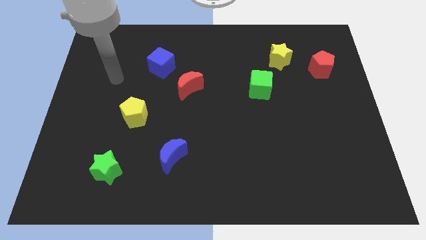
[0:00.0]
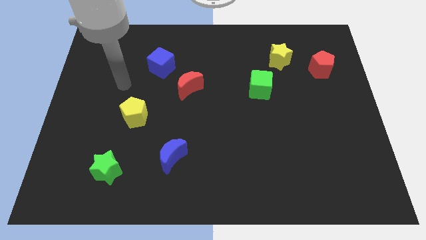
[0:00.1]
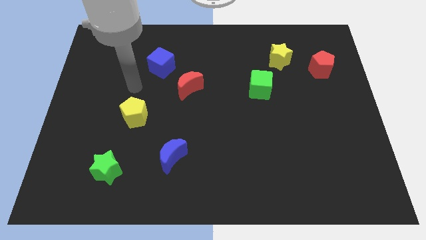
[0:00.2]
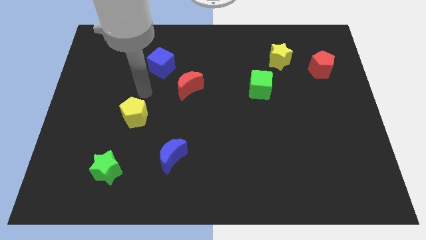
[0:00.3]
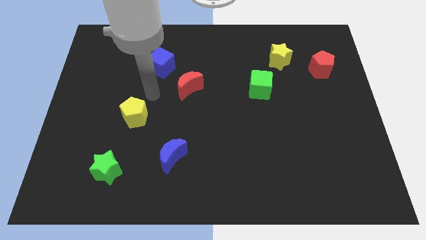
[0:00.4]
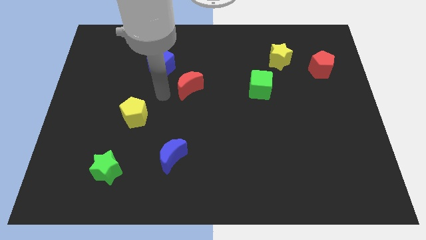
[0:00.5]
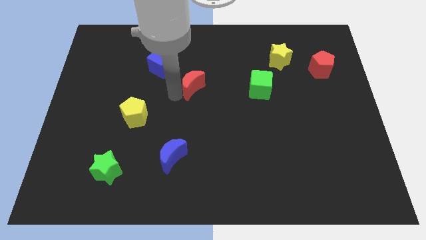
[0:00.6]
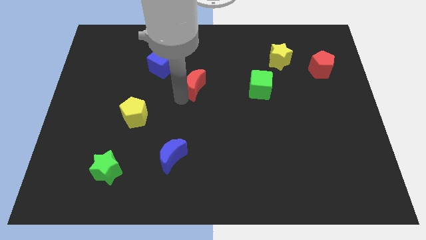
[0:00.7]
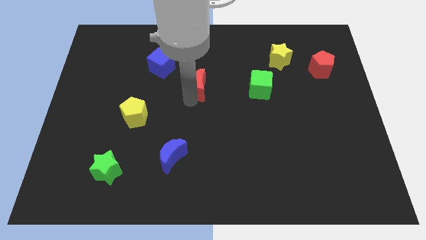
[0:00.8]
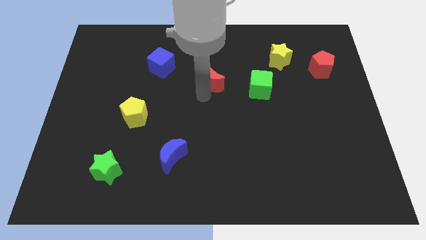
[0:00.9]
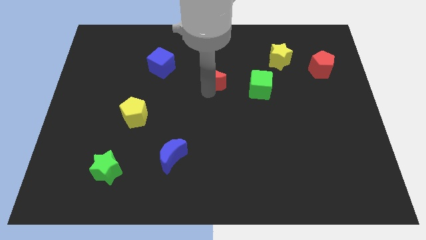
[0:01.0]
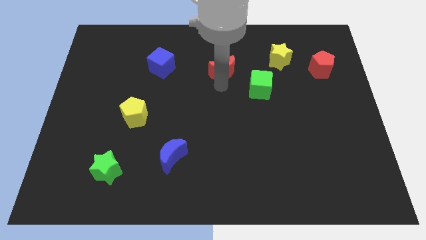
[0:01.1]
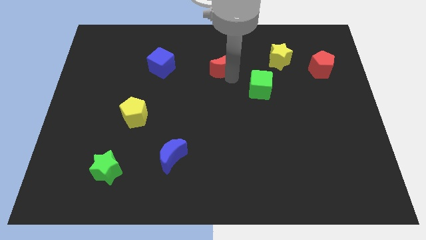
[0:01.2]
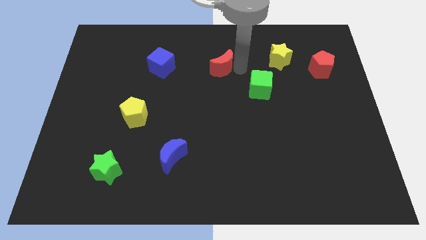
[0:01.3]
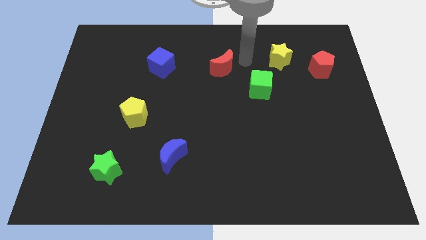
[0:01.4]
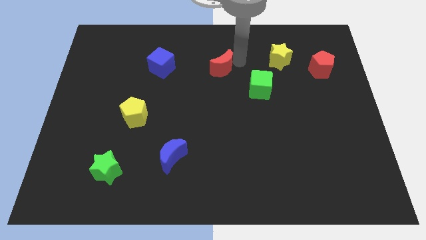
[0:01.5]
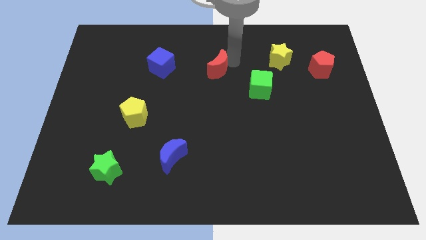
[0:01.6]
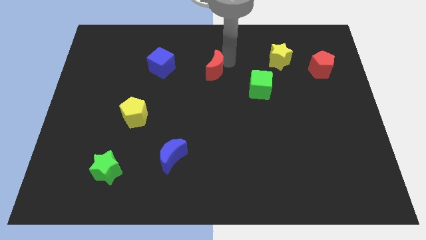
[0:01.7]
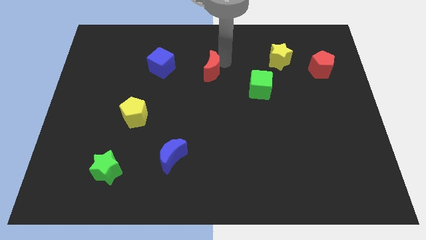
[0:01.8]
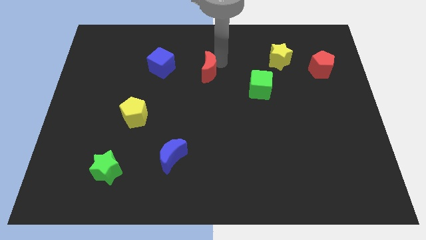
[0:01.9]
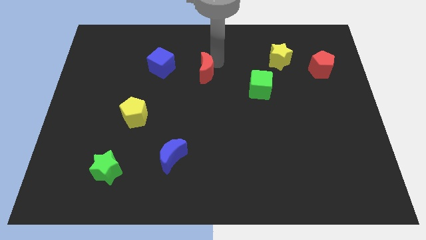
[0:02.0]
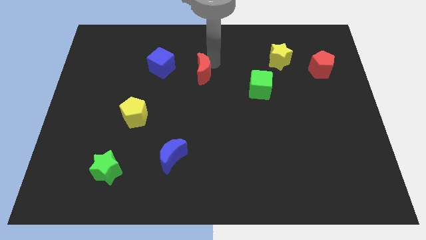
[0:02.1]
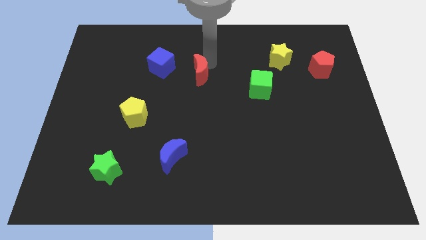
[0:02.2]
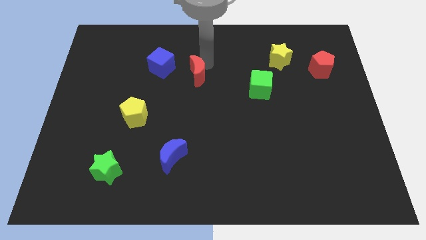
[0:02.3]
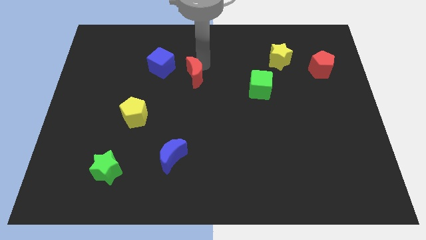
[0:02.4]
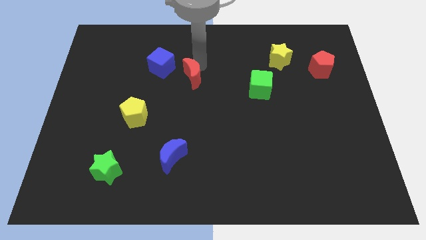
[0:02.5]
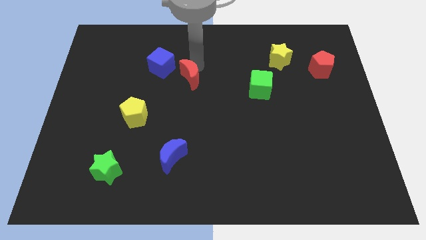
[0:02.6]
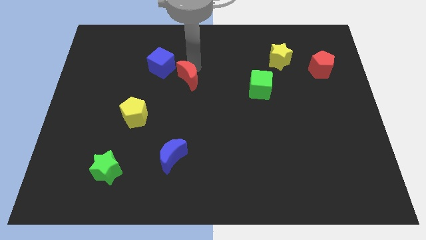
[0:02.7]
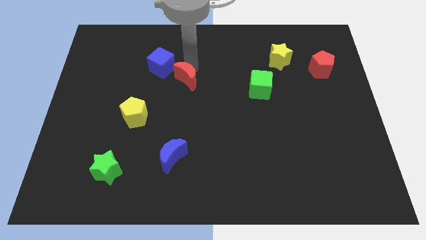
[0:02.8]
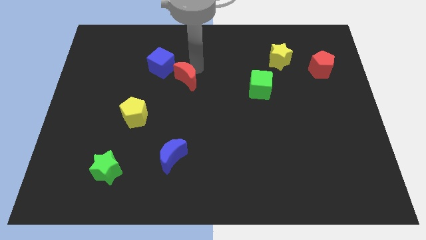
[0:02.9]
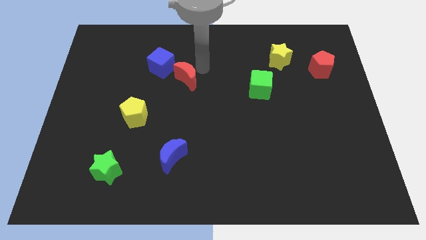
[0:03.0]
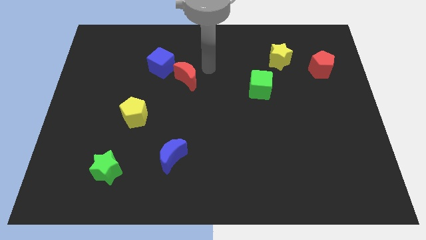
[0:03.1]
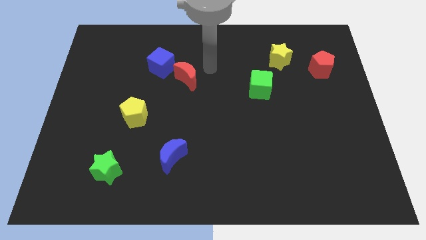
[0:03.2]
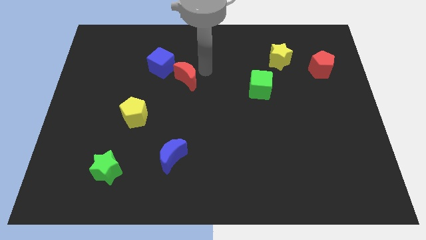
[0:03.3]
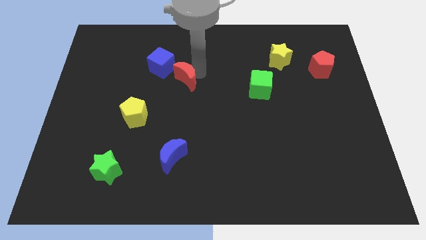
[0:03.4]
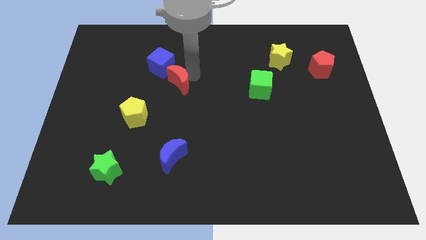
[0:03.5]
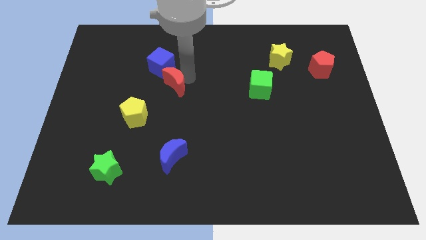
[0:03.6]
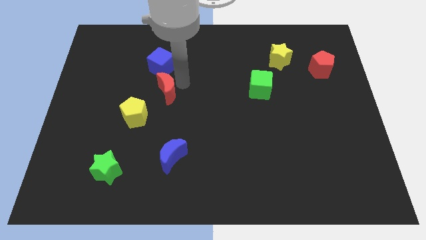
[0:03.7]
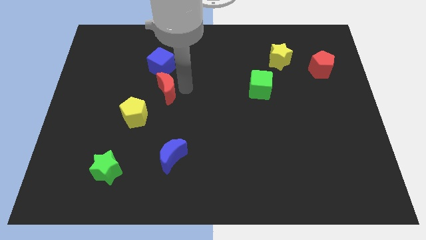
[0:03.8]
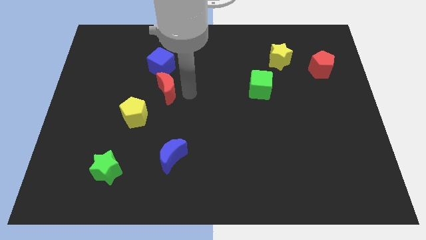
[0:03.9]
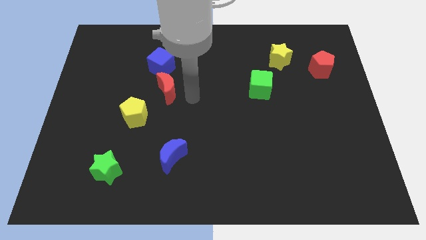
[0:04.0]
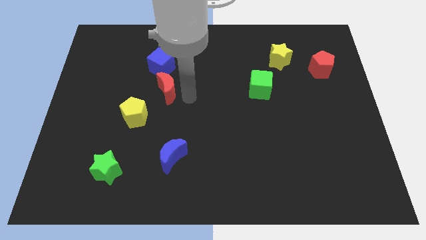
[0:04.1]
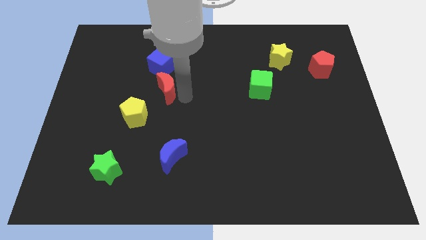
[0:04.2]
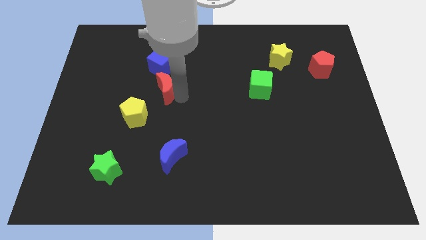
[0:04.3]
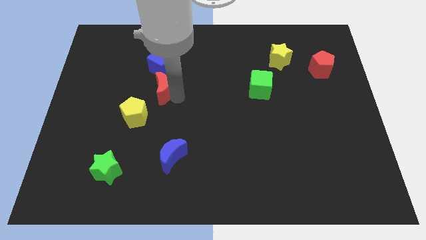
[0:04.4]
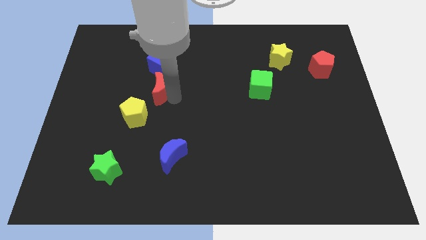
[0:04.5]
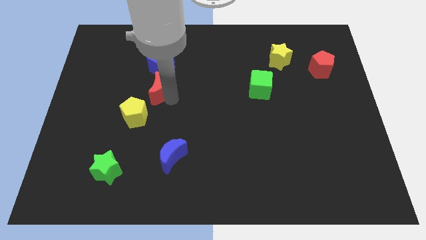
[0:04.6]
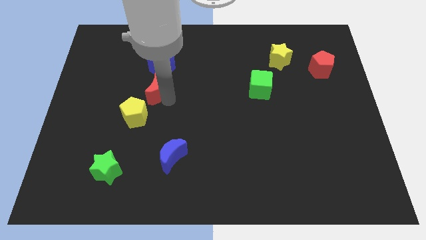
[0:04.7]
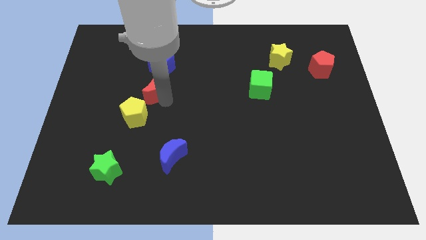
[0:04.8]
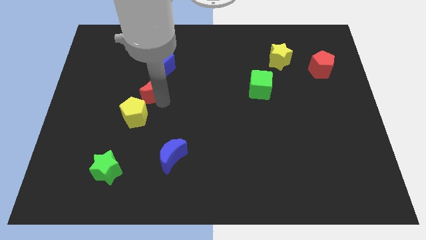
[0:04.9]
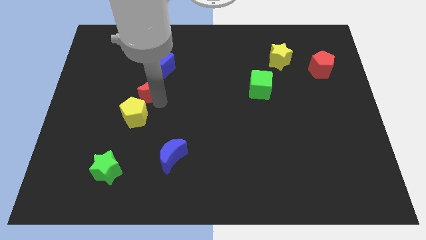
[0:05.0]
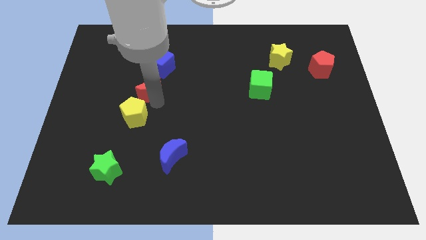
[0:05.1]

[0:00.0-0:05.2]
slide the red moon to the bottom left side of the blue cube

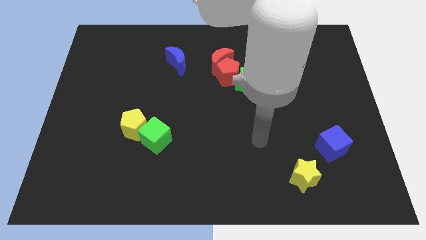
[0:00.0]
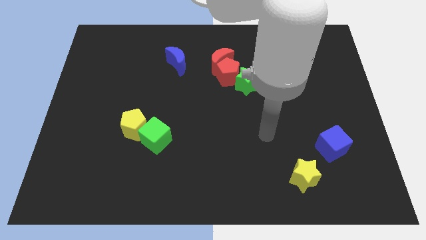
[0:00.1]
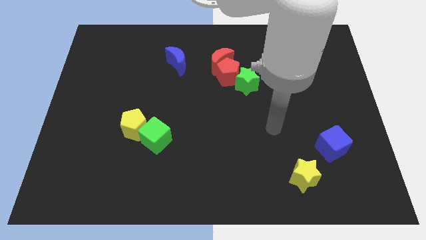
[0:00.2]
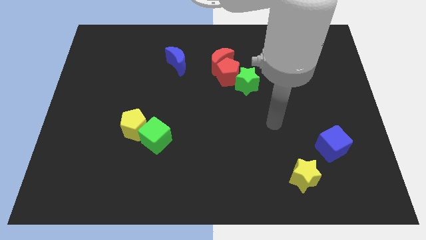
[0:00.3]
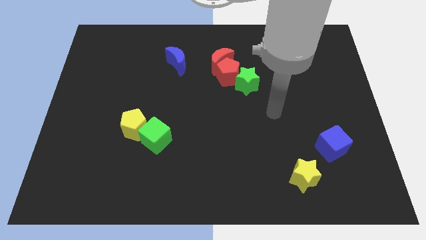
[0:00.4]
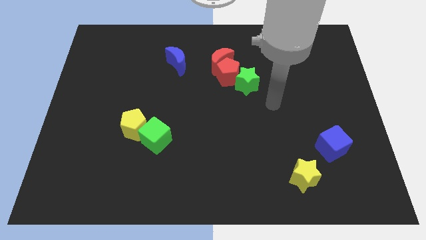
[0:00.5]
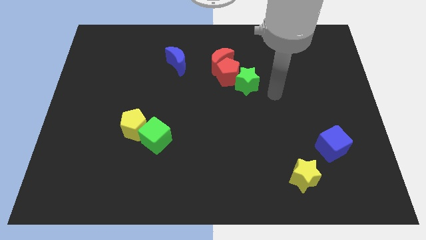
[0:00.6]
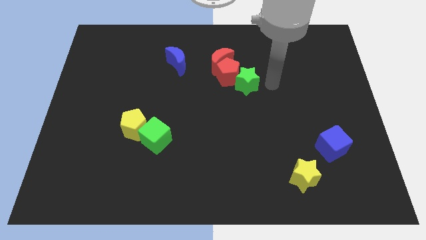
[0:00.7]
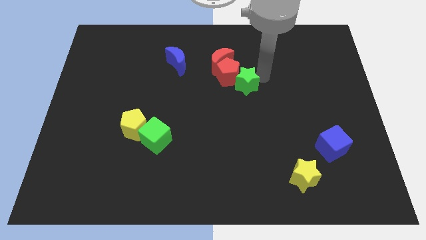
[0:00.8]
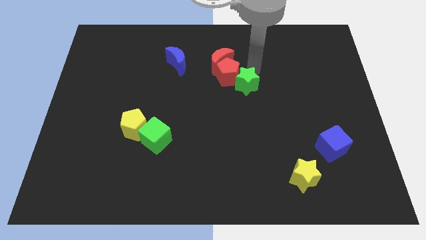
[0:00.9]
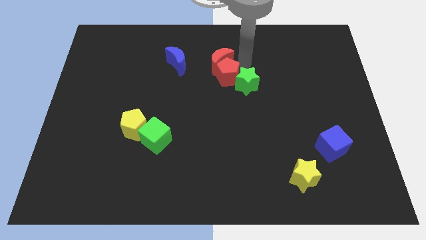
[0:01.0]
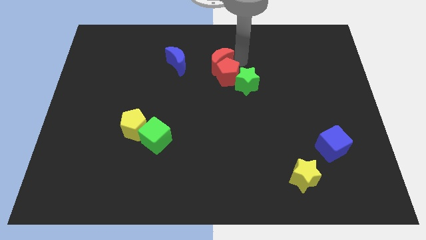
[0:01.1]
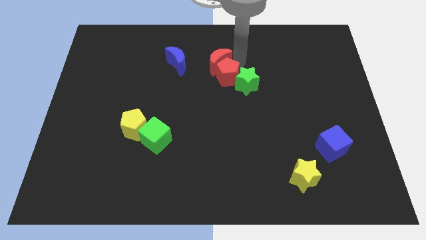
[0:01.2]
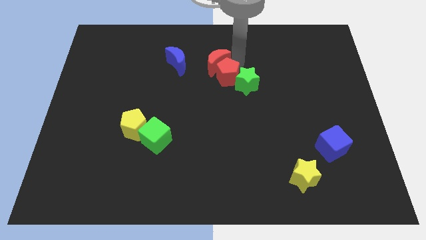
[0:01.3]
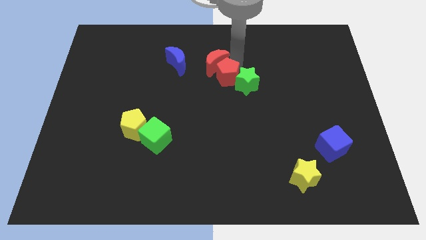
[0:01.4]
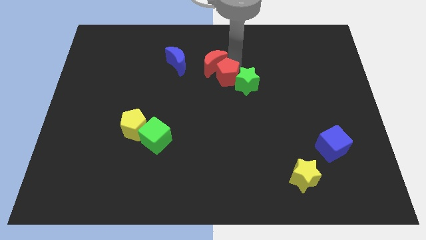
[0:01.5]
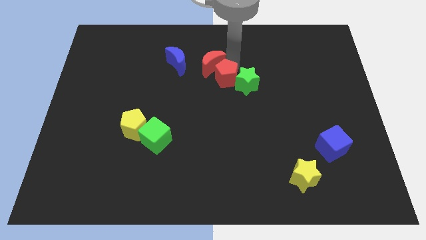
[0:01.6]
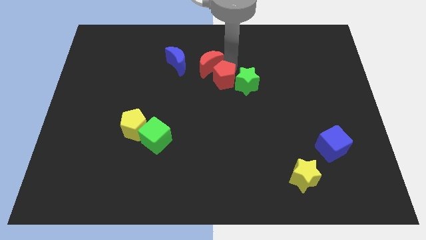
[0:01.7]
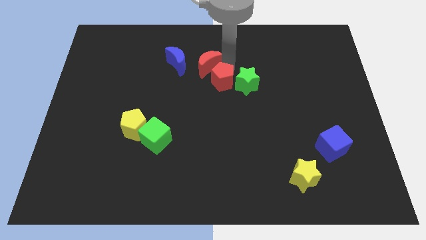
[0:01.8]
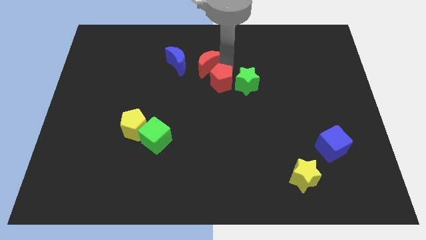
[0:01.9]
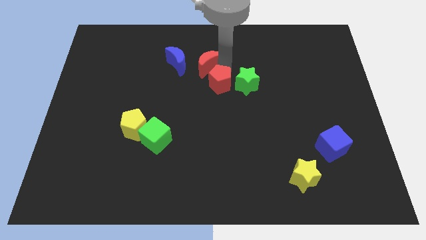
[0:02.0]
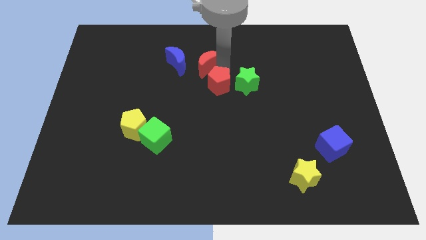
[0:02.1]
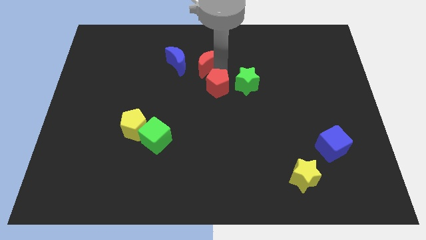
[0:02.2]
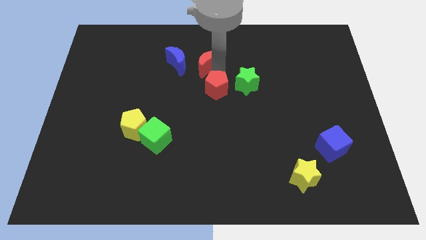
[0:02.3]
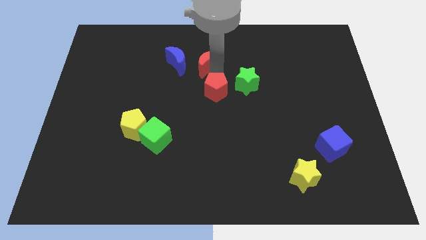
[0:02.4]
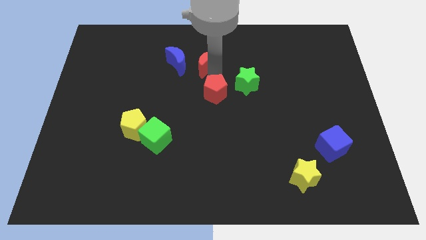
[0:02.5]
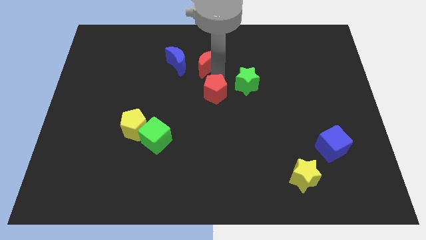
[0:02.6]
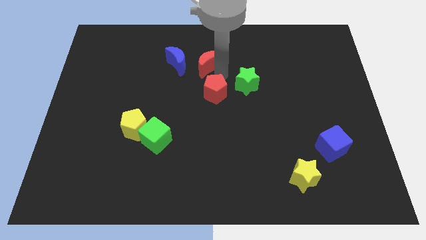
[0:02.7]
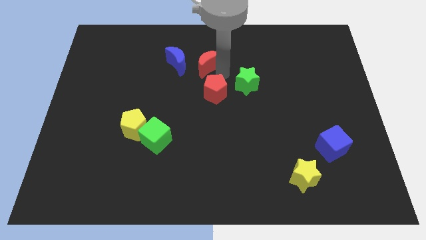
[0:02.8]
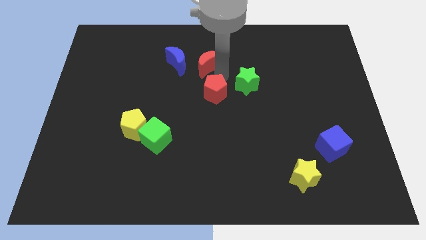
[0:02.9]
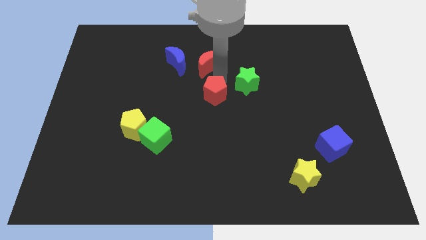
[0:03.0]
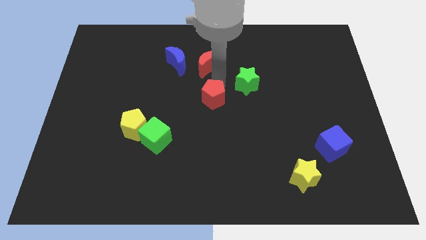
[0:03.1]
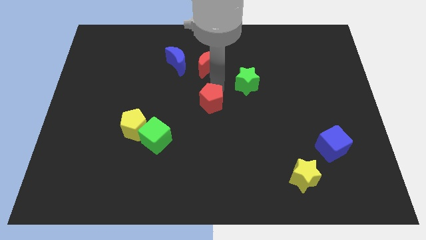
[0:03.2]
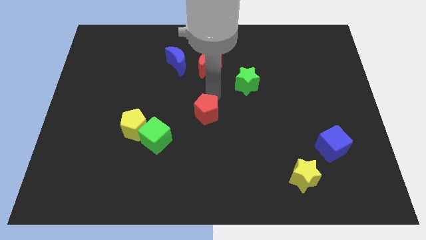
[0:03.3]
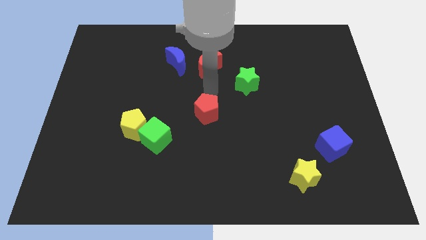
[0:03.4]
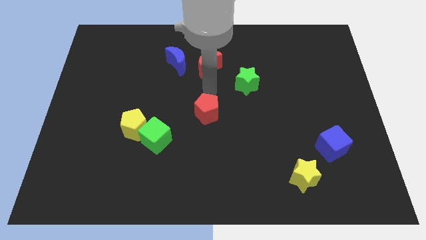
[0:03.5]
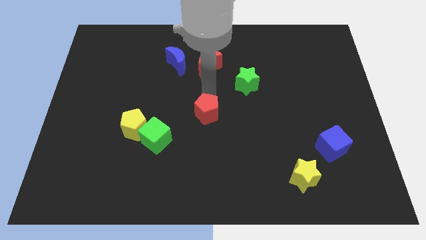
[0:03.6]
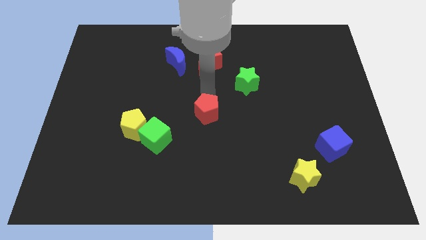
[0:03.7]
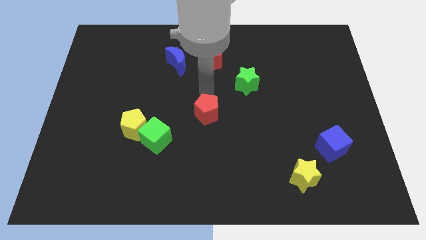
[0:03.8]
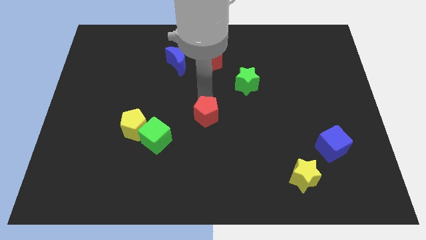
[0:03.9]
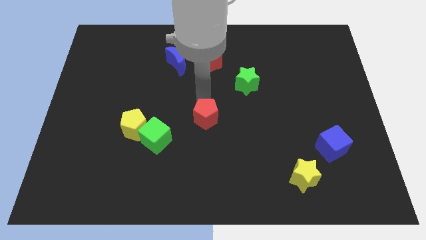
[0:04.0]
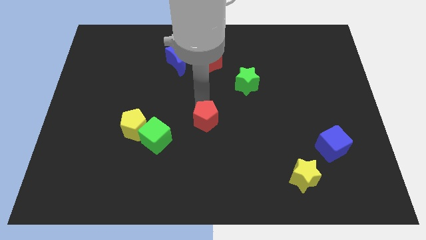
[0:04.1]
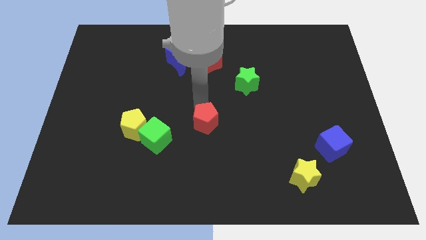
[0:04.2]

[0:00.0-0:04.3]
put the red pentagon to the right side of the green cube
